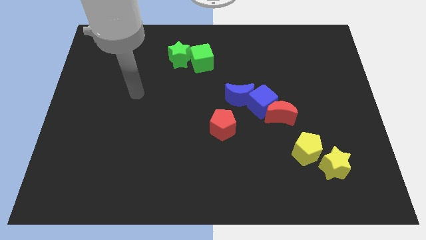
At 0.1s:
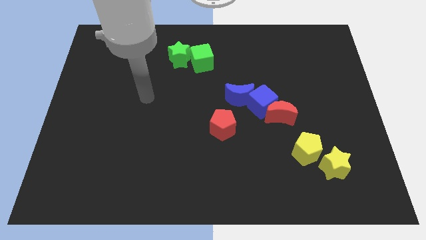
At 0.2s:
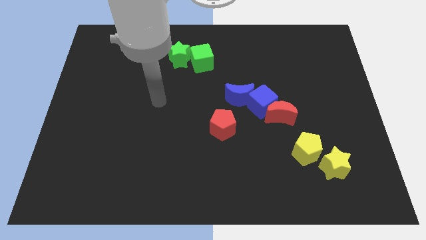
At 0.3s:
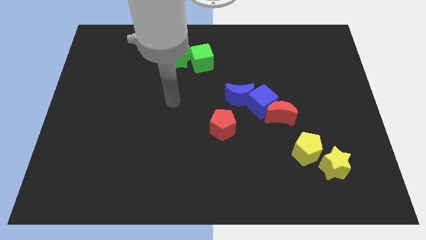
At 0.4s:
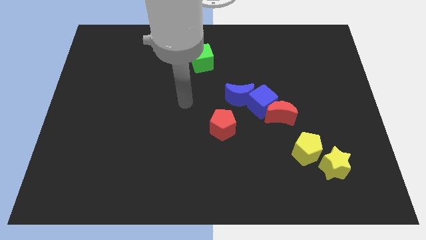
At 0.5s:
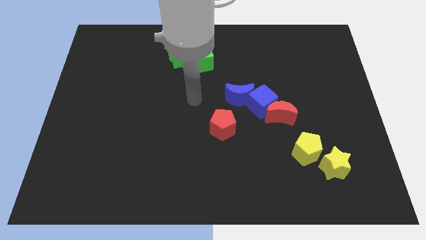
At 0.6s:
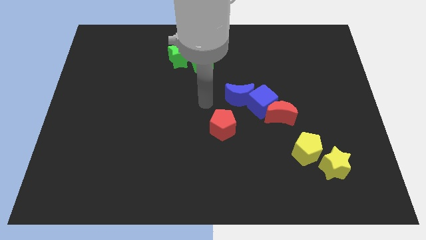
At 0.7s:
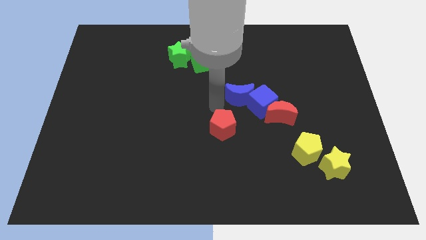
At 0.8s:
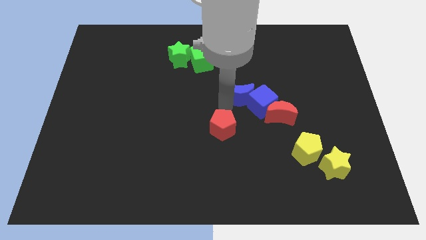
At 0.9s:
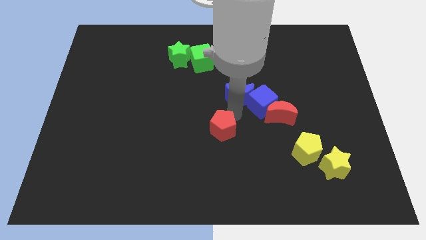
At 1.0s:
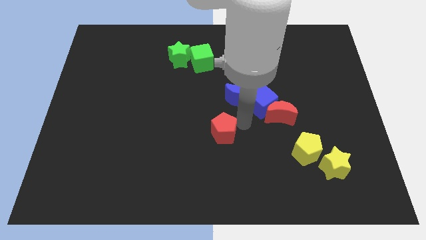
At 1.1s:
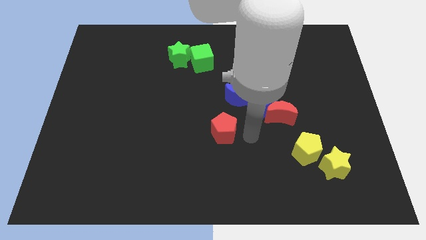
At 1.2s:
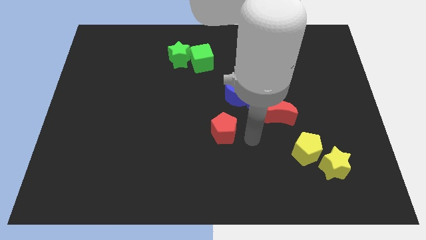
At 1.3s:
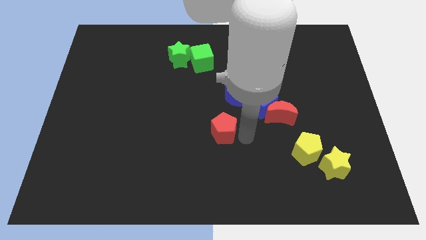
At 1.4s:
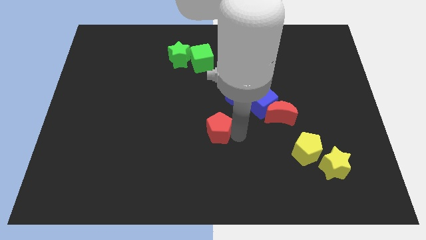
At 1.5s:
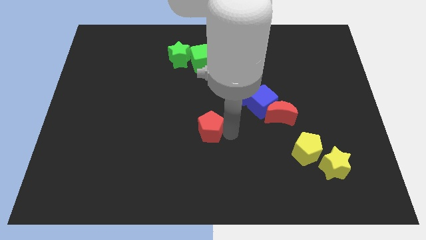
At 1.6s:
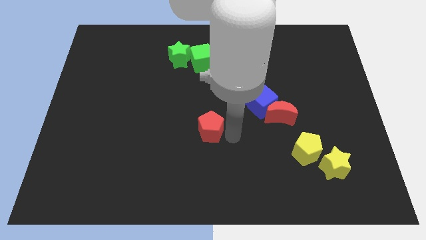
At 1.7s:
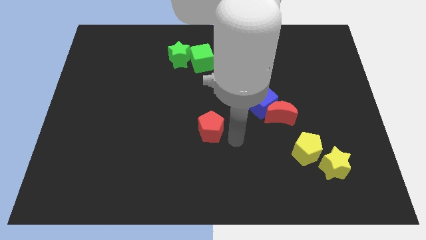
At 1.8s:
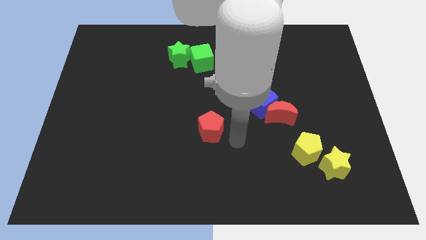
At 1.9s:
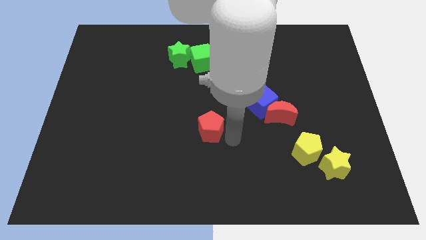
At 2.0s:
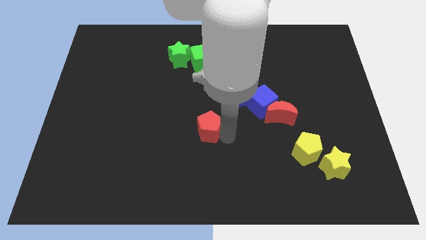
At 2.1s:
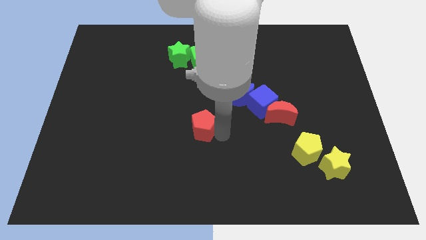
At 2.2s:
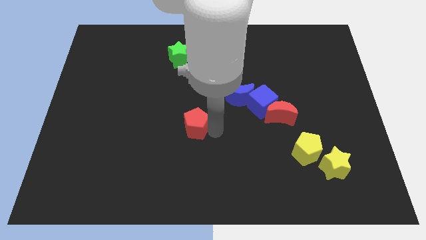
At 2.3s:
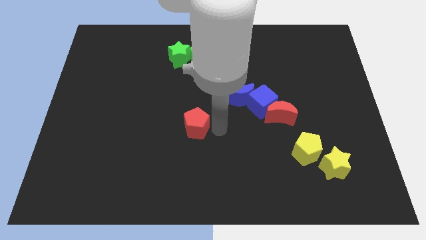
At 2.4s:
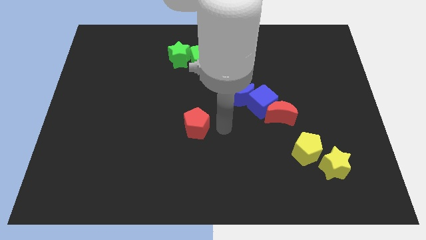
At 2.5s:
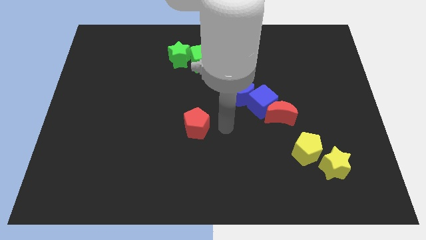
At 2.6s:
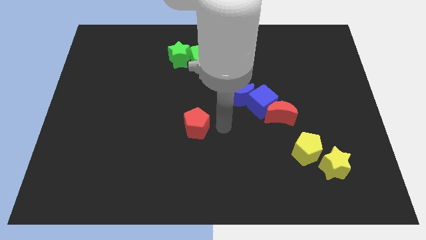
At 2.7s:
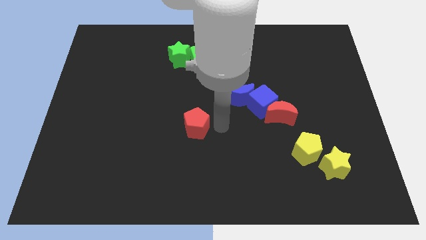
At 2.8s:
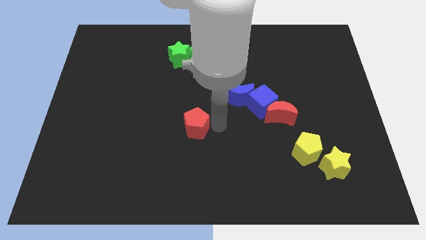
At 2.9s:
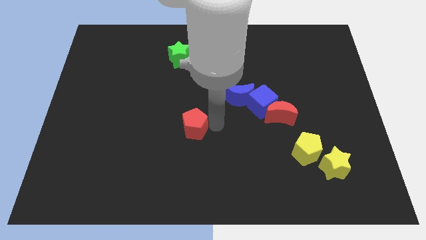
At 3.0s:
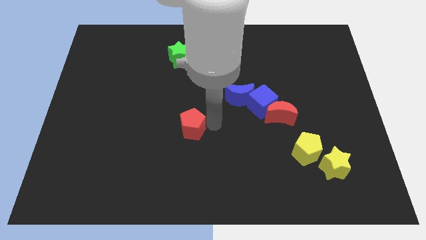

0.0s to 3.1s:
slightly move the red pentagon to the left

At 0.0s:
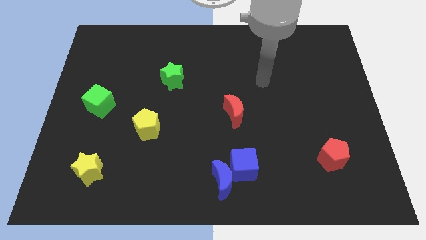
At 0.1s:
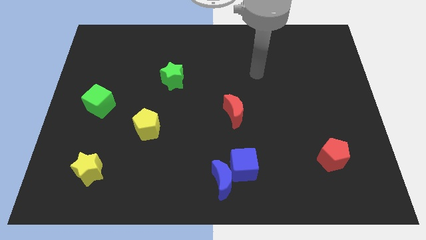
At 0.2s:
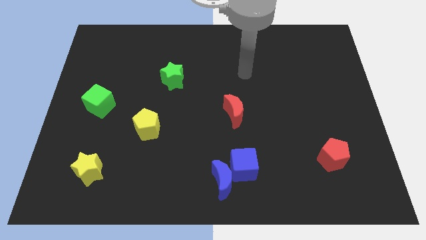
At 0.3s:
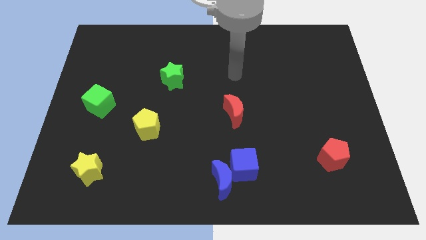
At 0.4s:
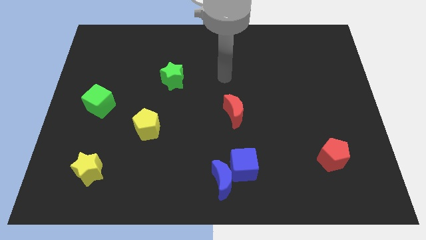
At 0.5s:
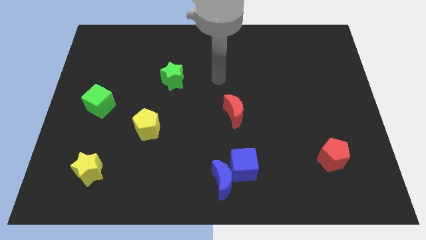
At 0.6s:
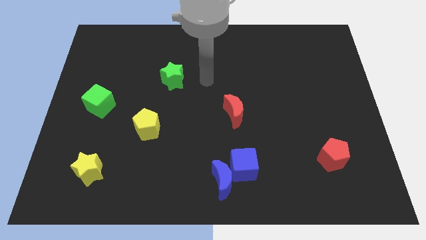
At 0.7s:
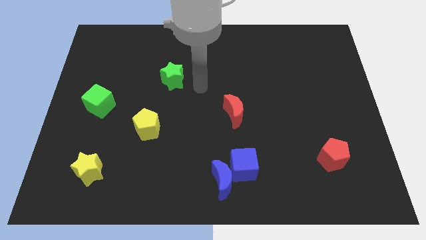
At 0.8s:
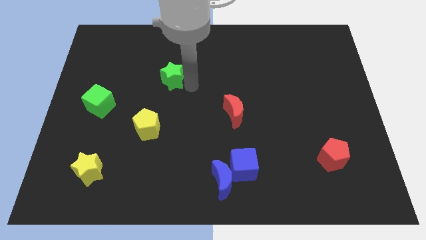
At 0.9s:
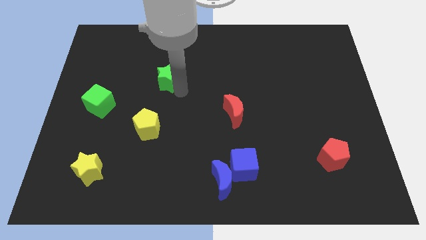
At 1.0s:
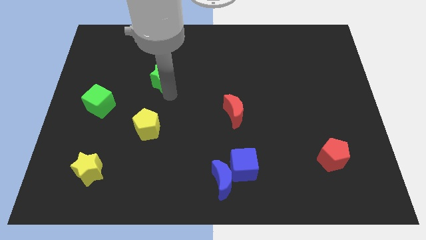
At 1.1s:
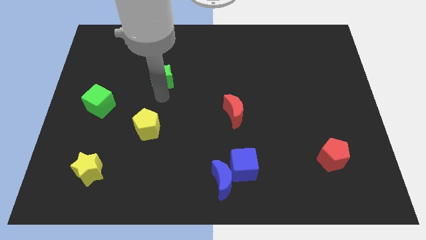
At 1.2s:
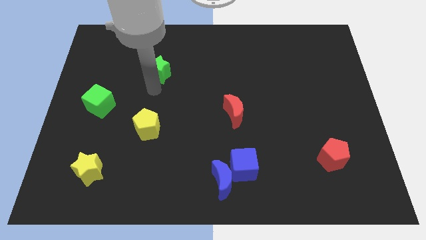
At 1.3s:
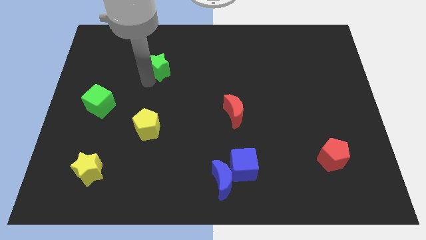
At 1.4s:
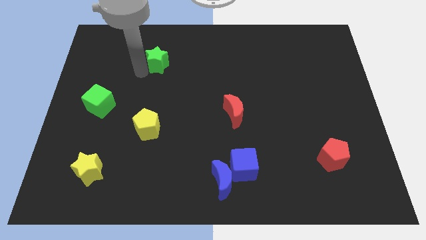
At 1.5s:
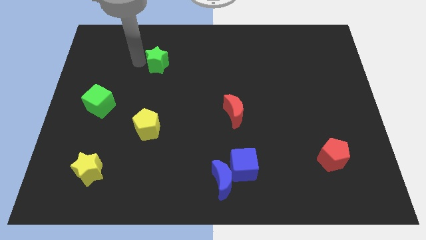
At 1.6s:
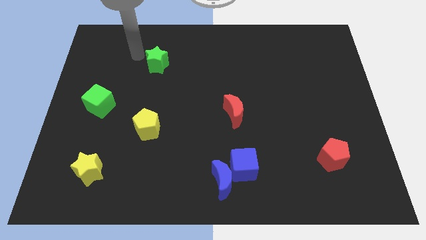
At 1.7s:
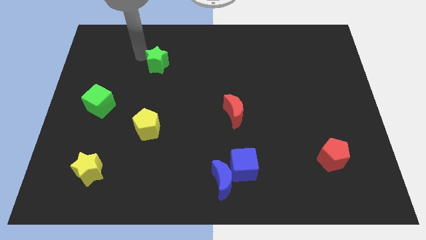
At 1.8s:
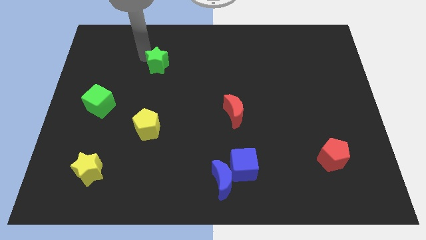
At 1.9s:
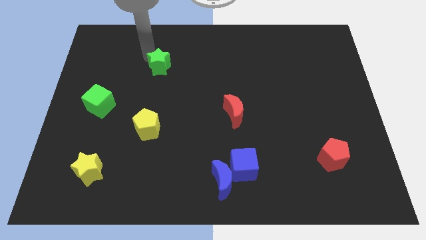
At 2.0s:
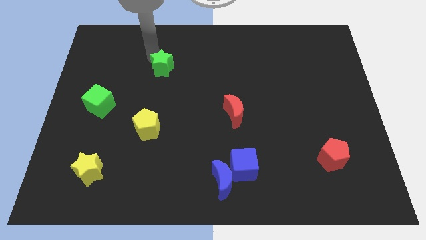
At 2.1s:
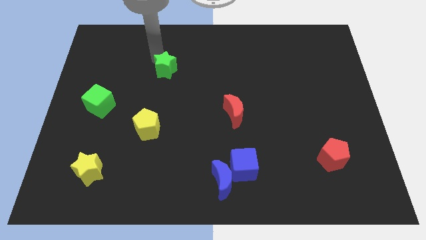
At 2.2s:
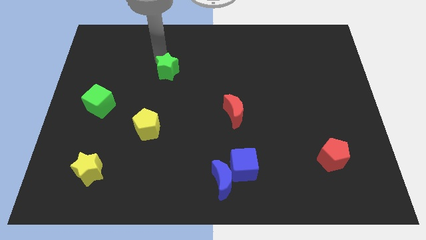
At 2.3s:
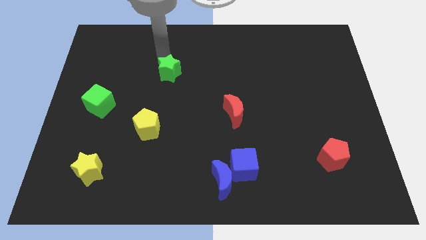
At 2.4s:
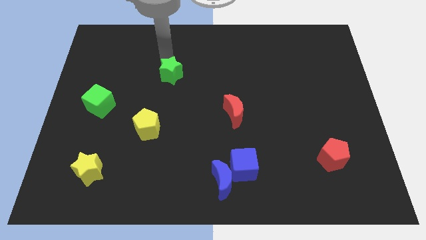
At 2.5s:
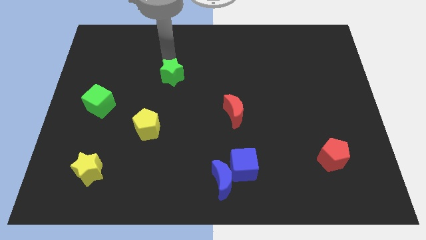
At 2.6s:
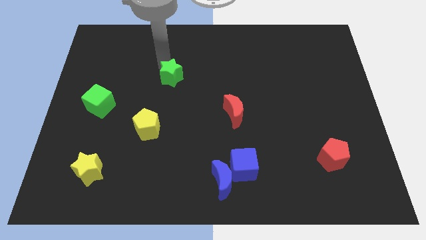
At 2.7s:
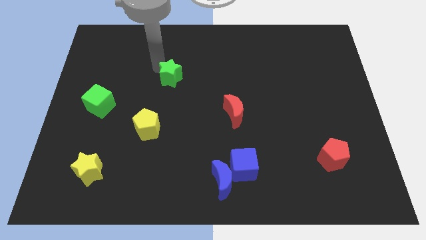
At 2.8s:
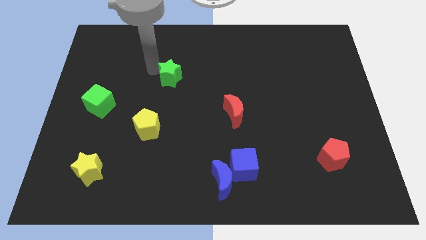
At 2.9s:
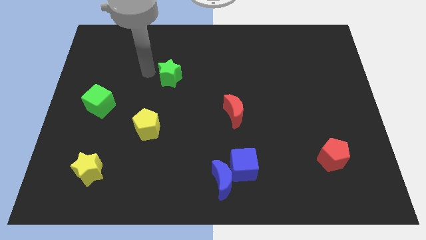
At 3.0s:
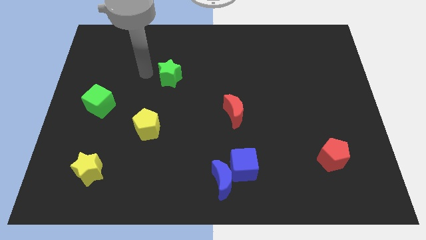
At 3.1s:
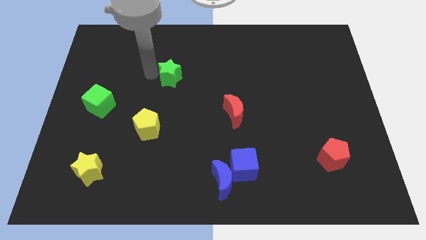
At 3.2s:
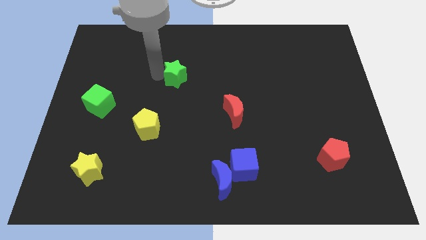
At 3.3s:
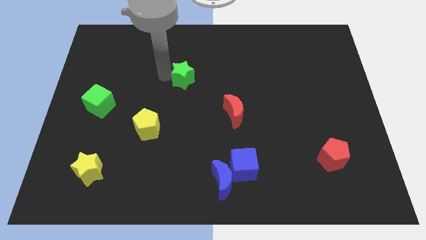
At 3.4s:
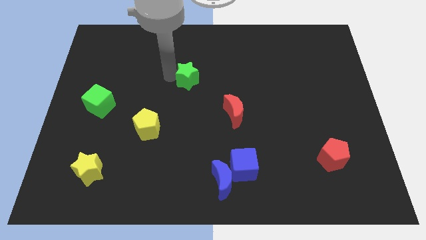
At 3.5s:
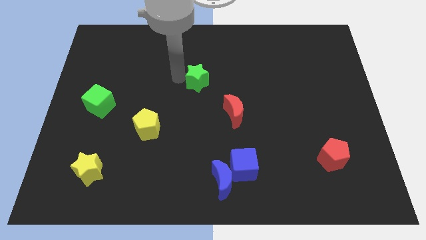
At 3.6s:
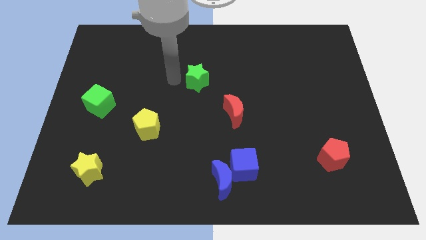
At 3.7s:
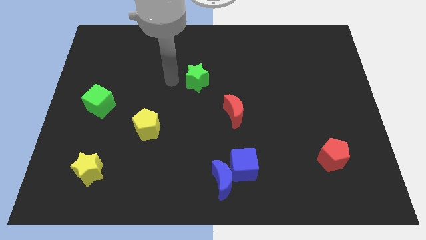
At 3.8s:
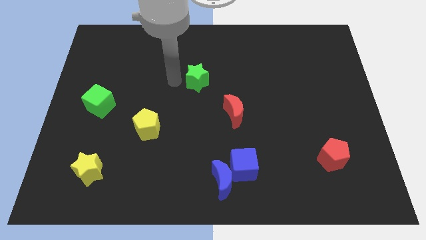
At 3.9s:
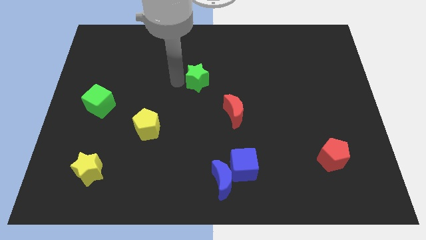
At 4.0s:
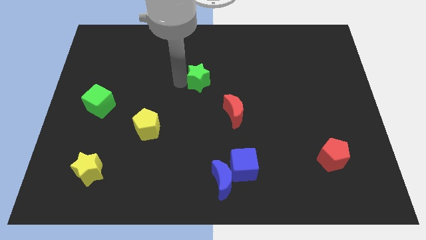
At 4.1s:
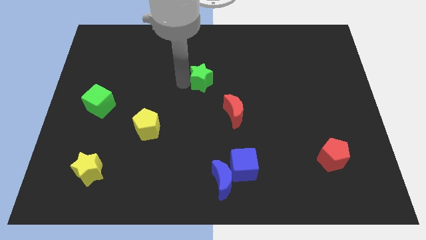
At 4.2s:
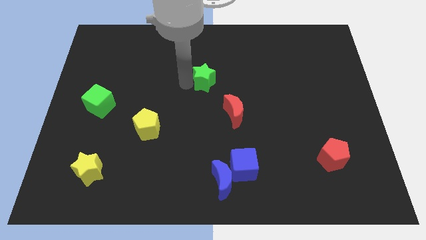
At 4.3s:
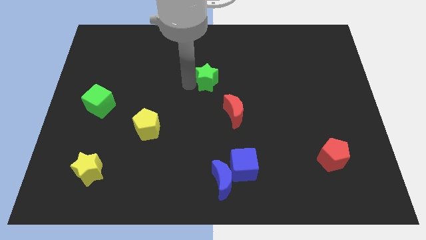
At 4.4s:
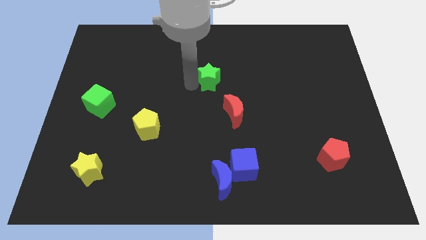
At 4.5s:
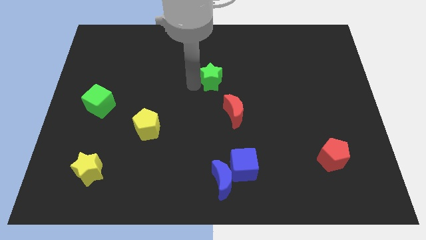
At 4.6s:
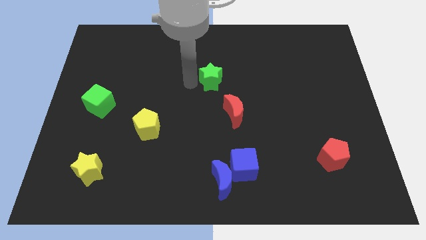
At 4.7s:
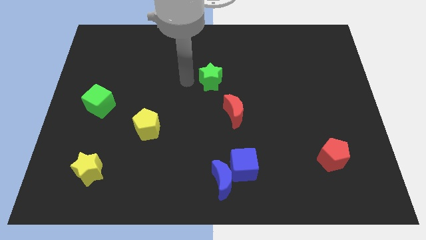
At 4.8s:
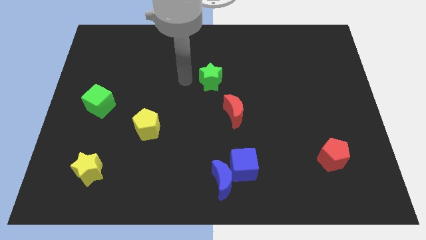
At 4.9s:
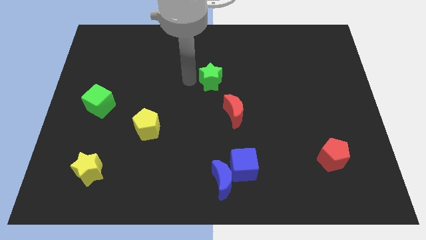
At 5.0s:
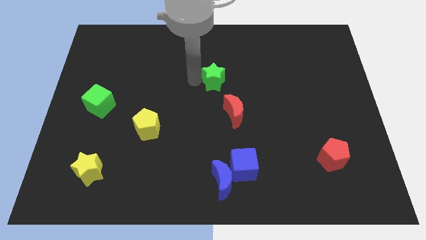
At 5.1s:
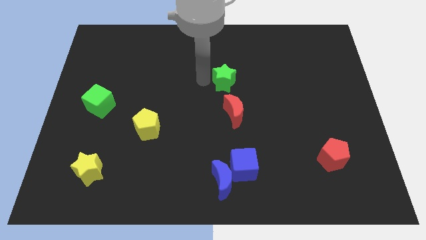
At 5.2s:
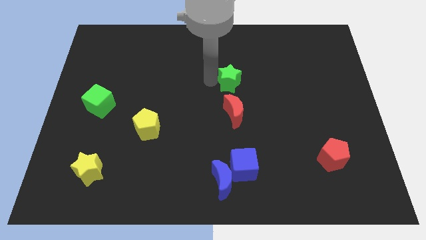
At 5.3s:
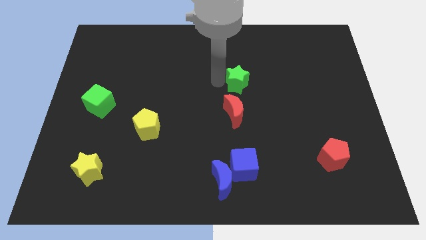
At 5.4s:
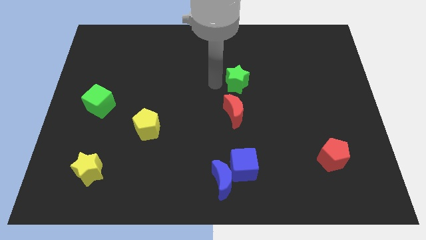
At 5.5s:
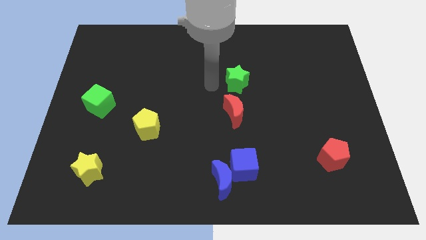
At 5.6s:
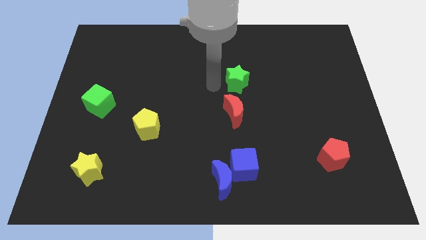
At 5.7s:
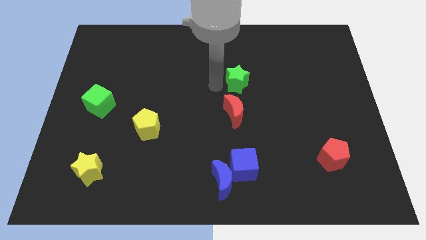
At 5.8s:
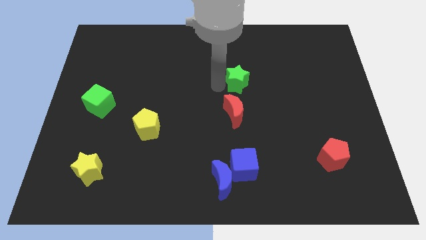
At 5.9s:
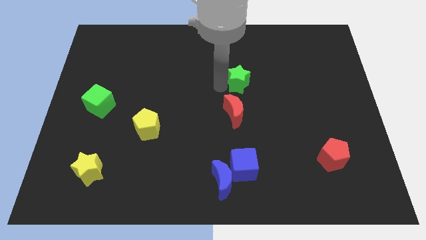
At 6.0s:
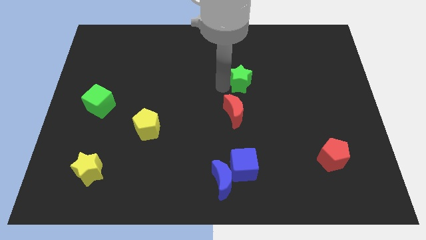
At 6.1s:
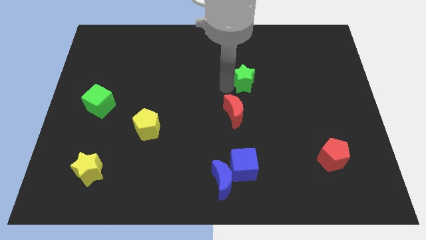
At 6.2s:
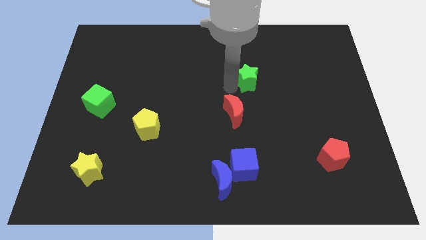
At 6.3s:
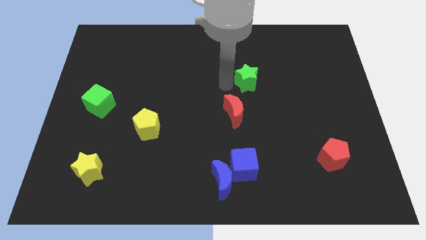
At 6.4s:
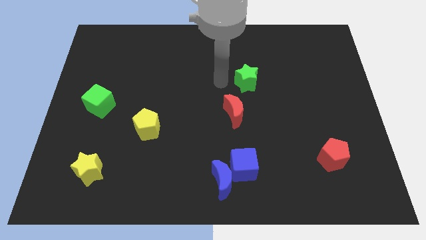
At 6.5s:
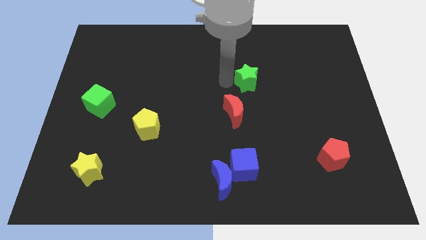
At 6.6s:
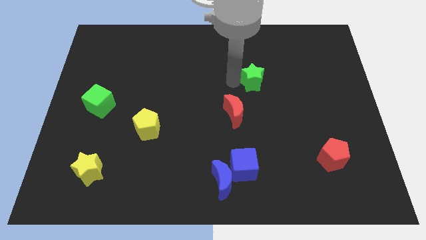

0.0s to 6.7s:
move the green star to the right
